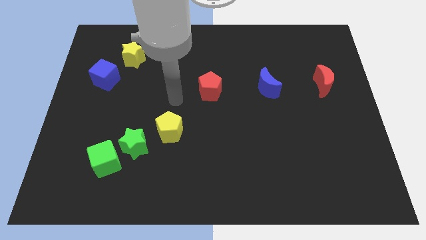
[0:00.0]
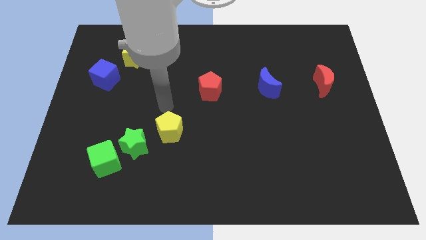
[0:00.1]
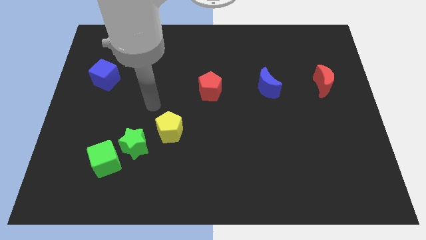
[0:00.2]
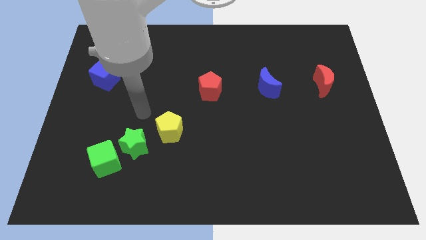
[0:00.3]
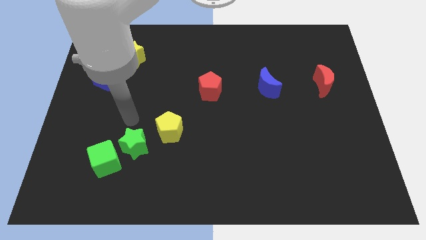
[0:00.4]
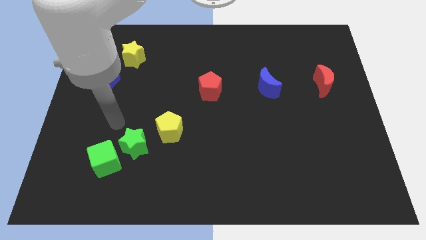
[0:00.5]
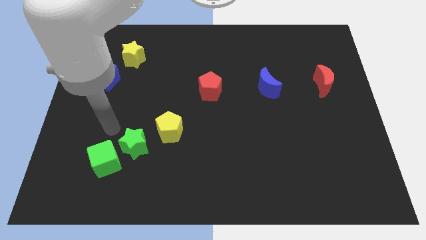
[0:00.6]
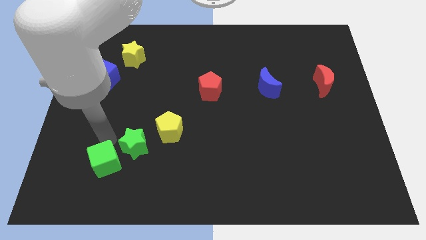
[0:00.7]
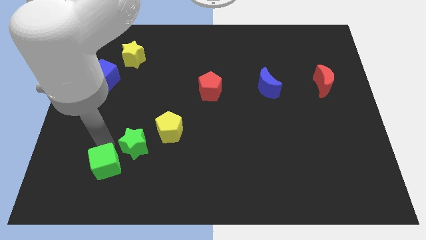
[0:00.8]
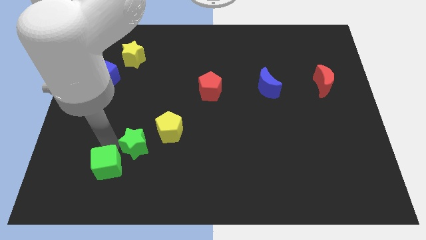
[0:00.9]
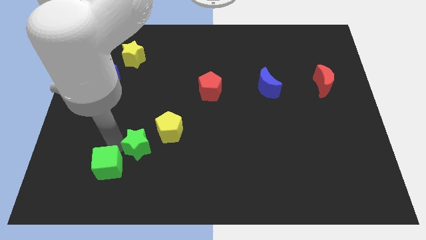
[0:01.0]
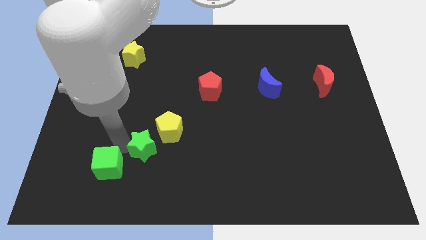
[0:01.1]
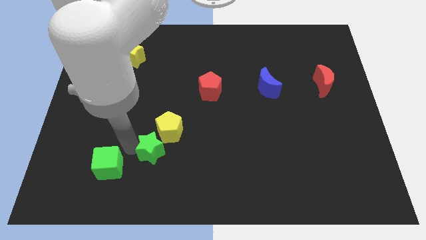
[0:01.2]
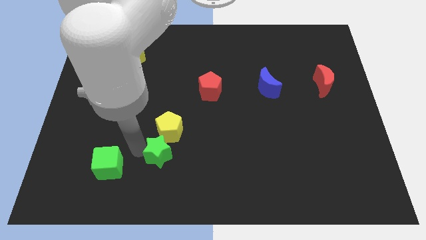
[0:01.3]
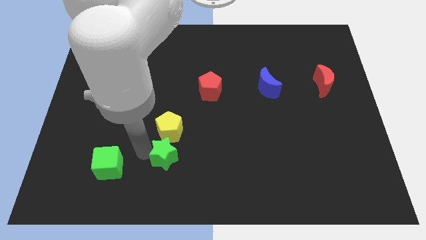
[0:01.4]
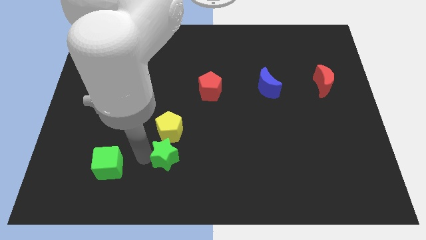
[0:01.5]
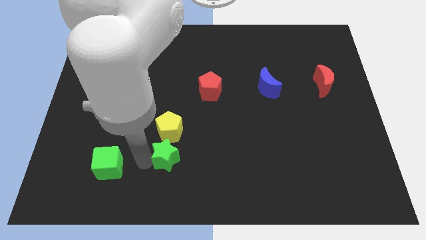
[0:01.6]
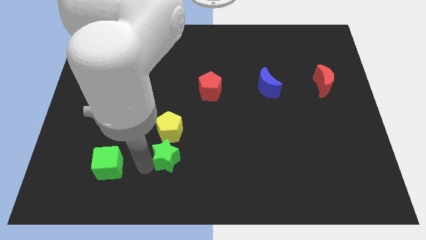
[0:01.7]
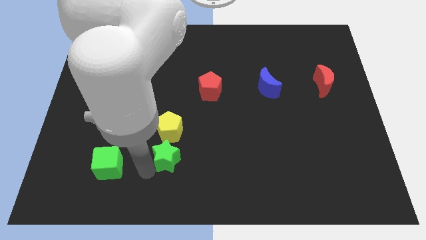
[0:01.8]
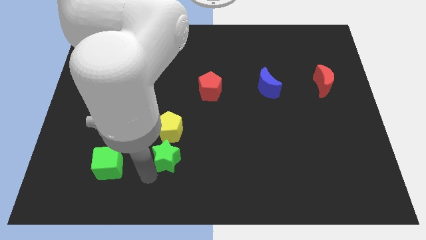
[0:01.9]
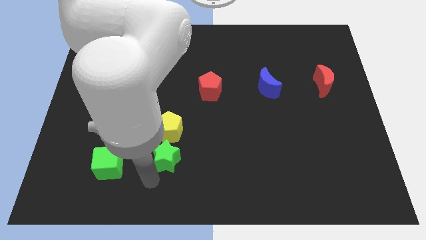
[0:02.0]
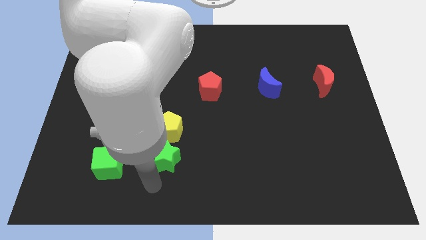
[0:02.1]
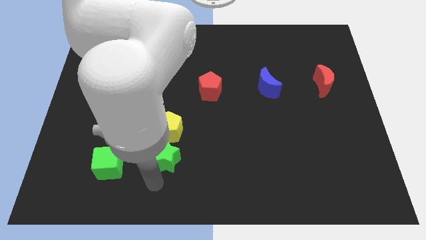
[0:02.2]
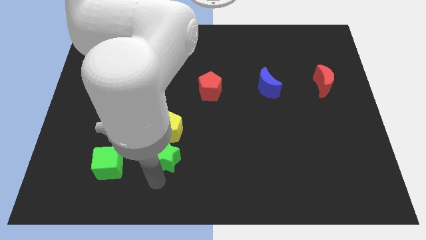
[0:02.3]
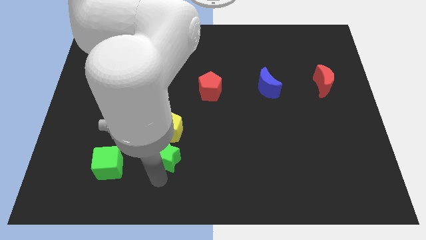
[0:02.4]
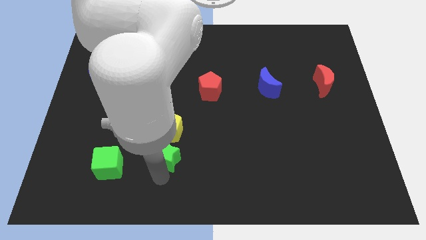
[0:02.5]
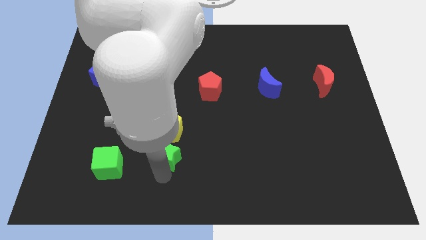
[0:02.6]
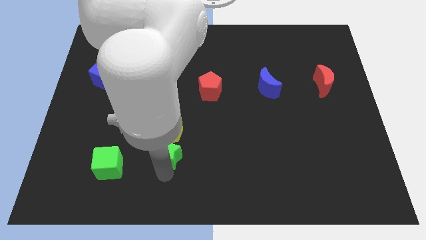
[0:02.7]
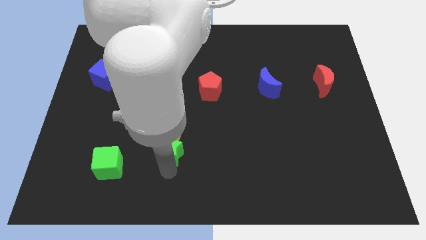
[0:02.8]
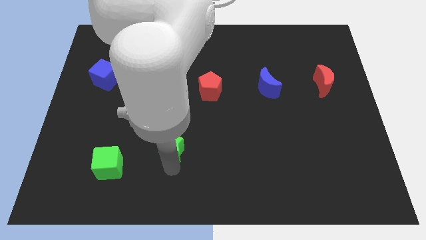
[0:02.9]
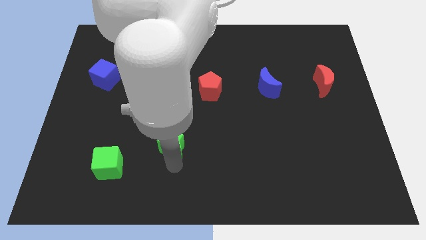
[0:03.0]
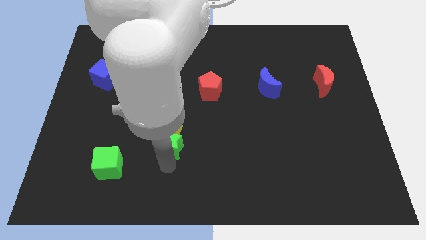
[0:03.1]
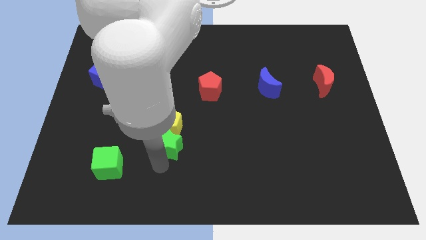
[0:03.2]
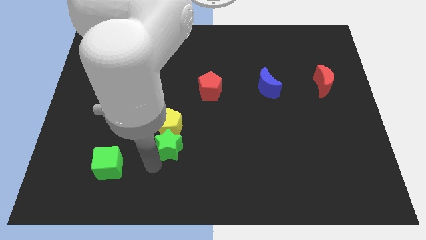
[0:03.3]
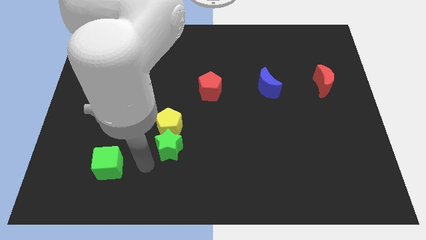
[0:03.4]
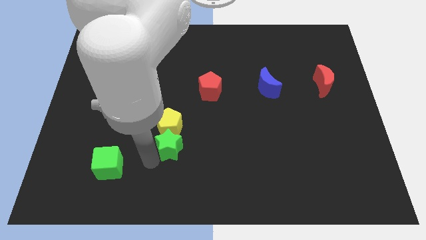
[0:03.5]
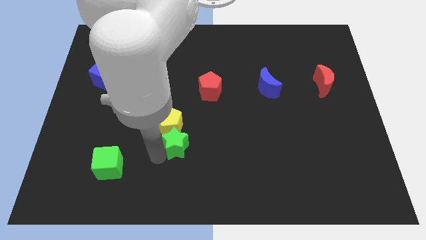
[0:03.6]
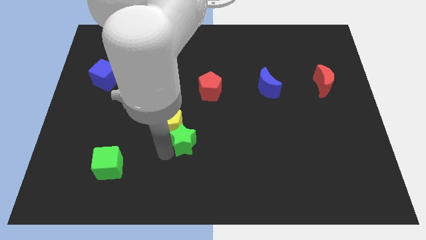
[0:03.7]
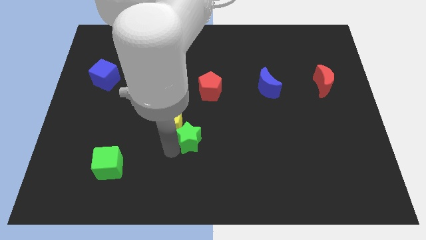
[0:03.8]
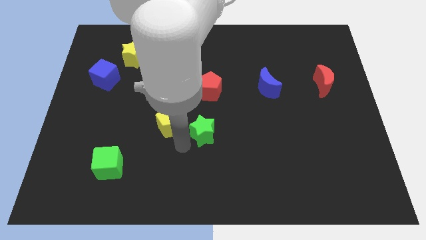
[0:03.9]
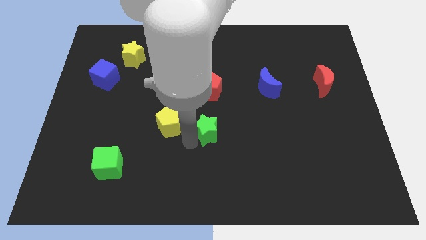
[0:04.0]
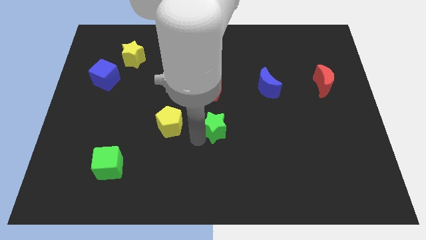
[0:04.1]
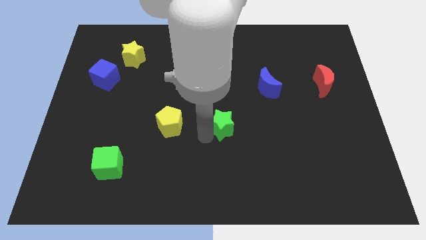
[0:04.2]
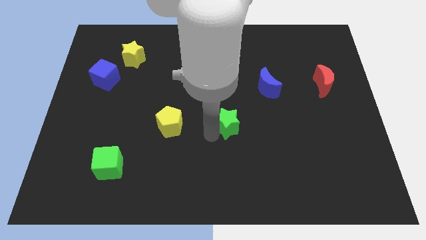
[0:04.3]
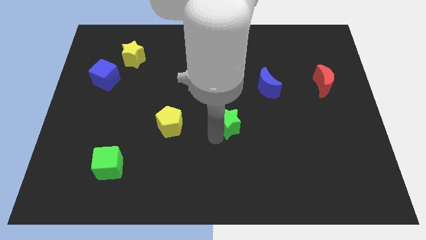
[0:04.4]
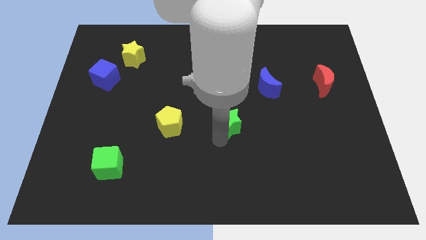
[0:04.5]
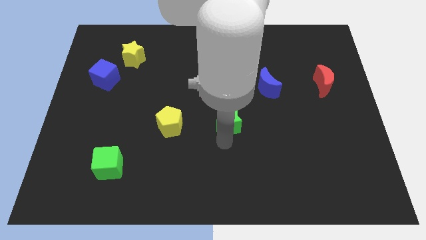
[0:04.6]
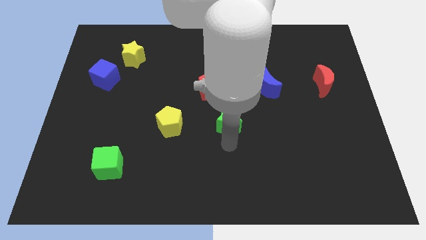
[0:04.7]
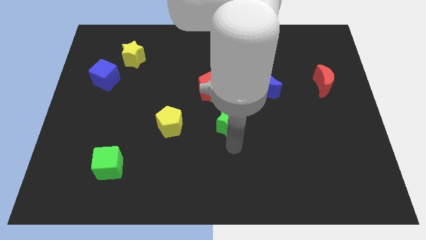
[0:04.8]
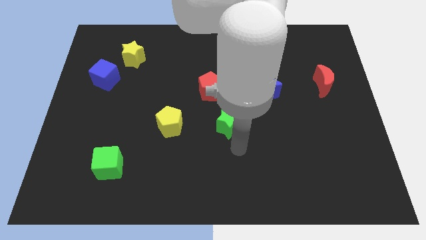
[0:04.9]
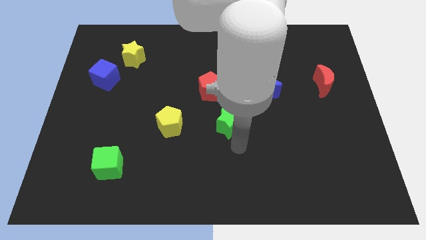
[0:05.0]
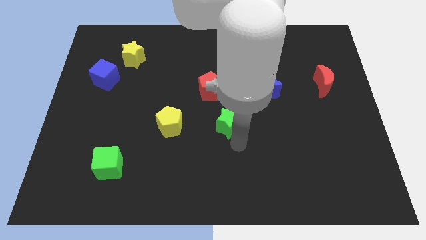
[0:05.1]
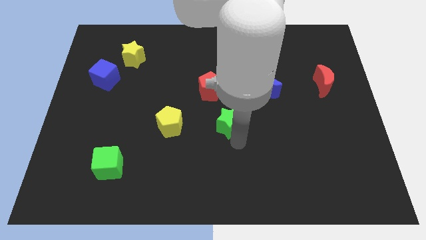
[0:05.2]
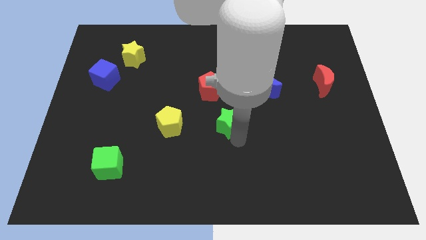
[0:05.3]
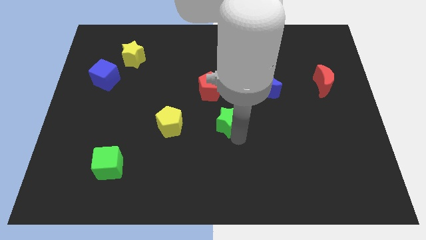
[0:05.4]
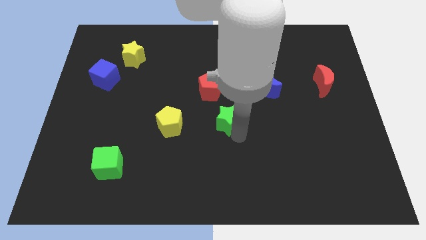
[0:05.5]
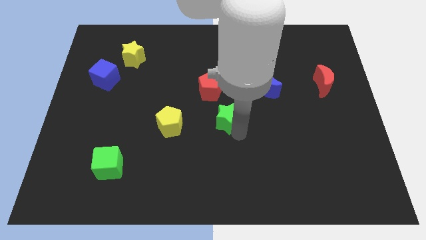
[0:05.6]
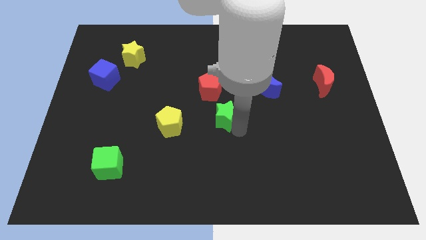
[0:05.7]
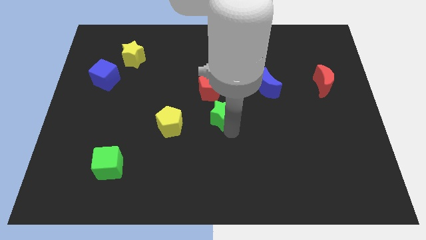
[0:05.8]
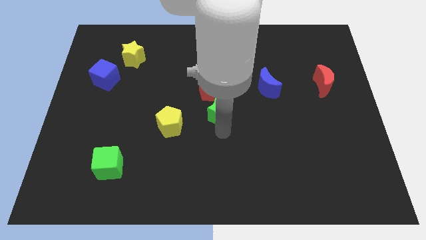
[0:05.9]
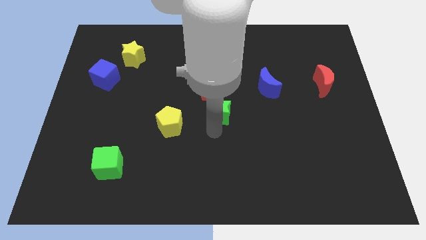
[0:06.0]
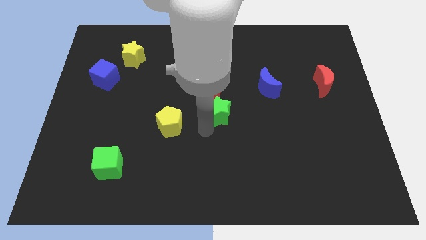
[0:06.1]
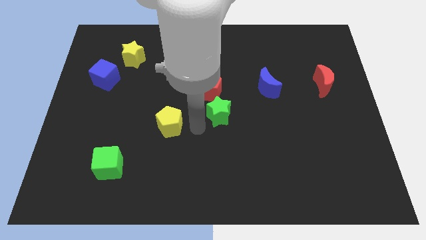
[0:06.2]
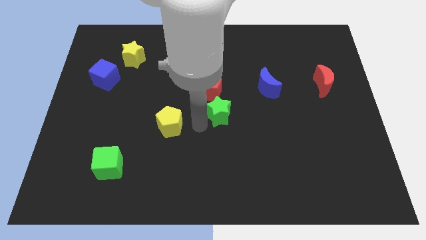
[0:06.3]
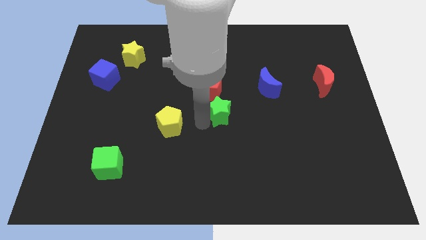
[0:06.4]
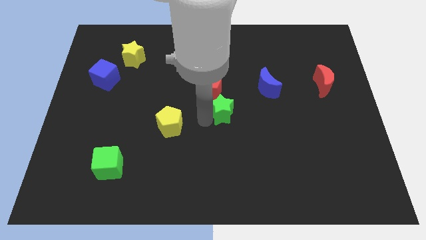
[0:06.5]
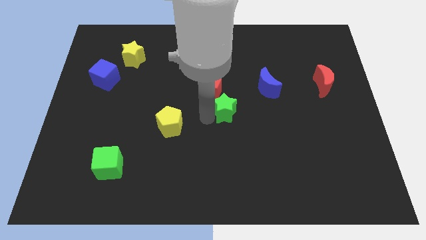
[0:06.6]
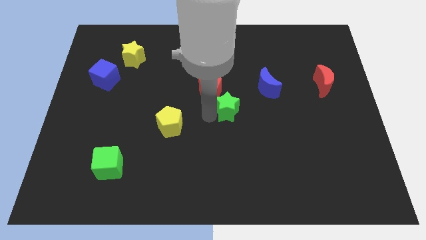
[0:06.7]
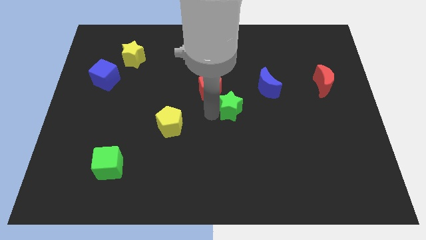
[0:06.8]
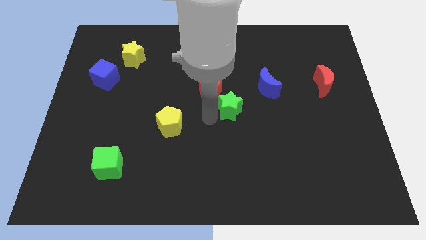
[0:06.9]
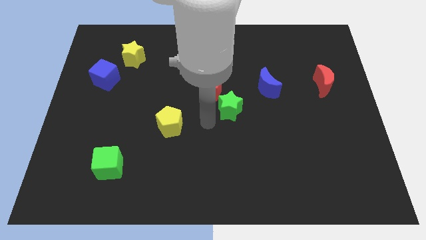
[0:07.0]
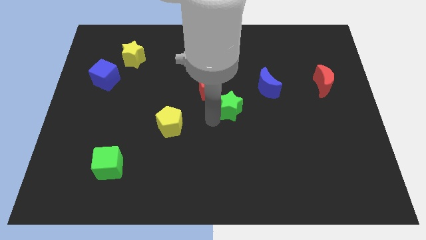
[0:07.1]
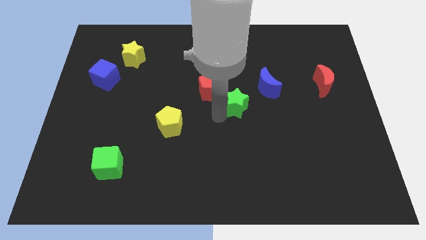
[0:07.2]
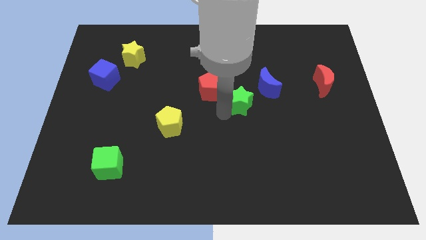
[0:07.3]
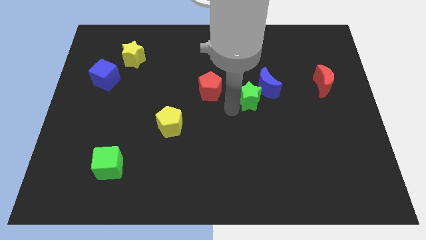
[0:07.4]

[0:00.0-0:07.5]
slide the green star close to the blue moon
